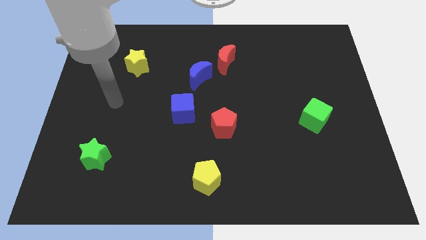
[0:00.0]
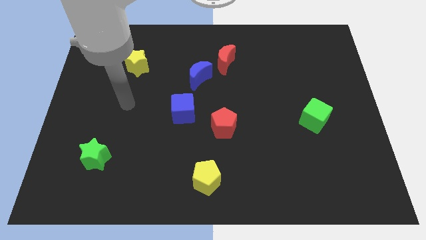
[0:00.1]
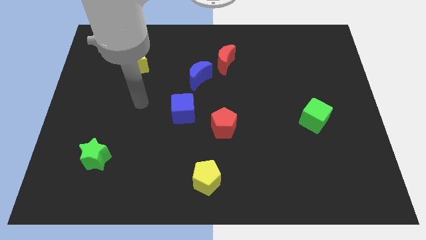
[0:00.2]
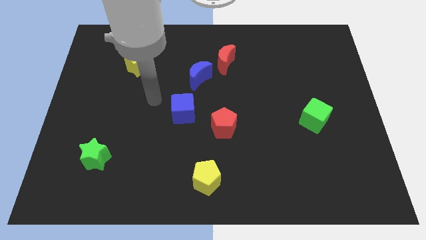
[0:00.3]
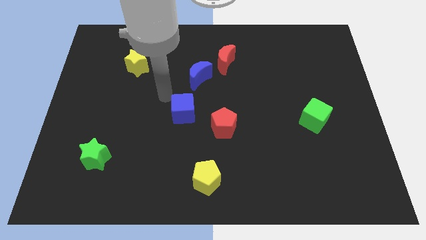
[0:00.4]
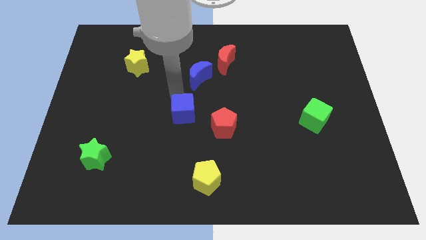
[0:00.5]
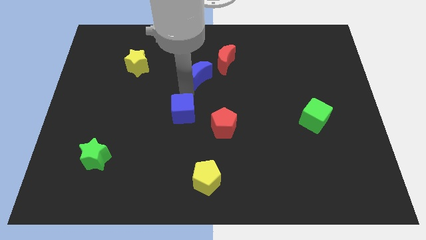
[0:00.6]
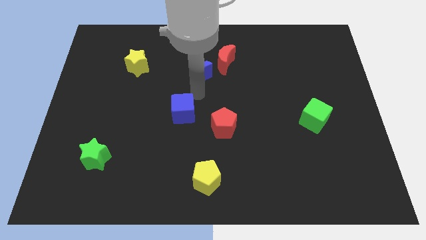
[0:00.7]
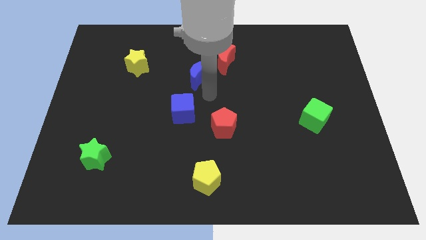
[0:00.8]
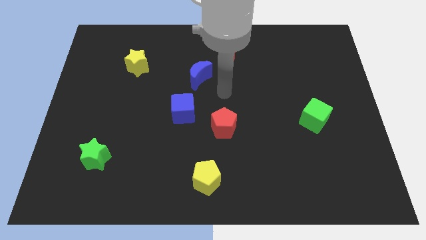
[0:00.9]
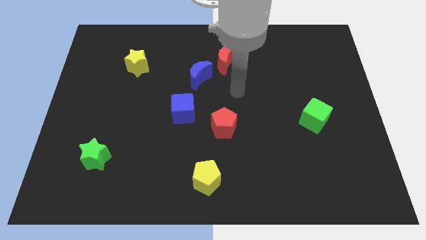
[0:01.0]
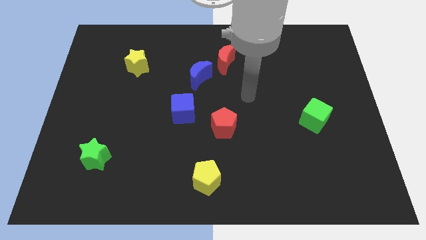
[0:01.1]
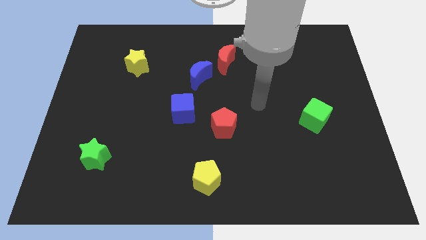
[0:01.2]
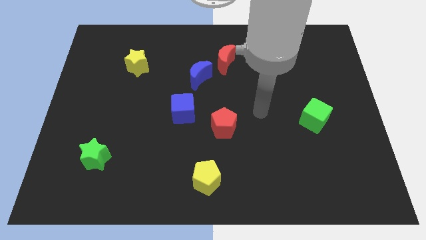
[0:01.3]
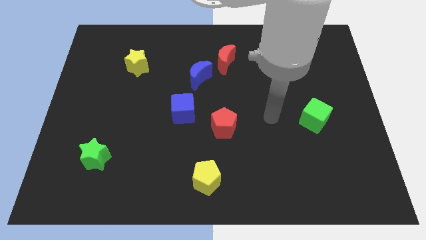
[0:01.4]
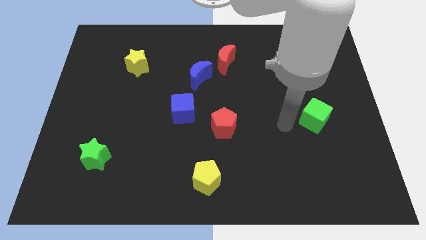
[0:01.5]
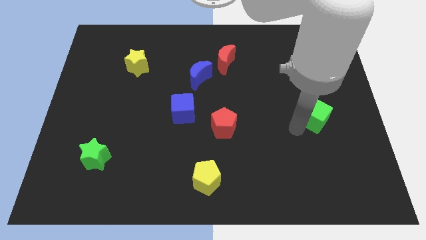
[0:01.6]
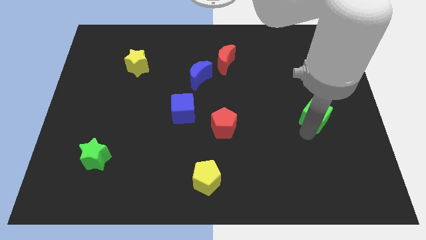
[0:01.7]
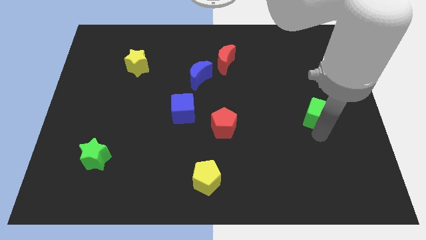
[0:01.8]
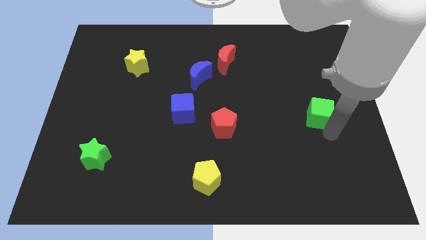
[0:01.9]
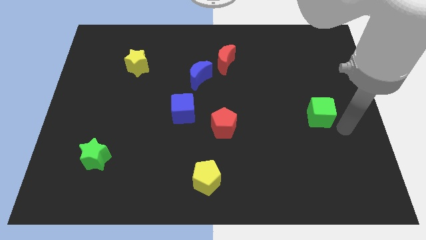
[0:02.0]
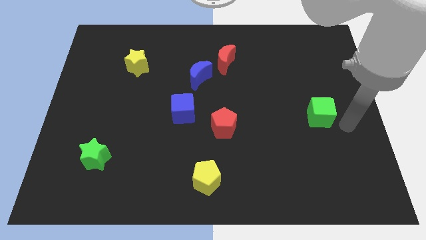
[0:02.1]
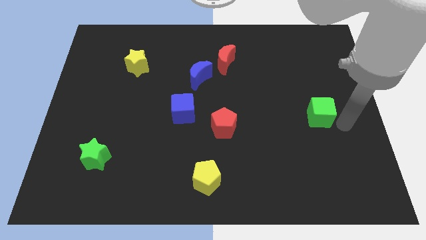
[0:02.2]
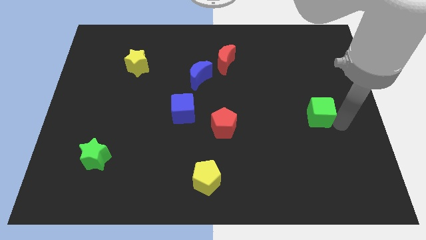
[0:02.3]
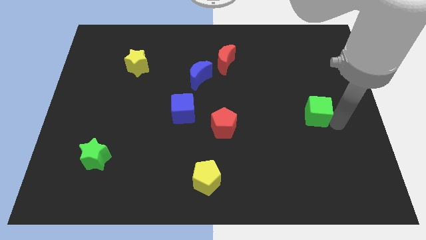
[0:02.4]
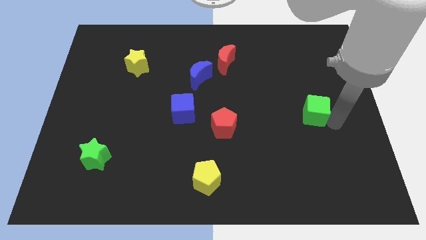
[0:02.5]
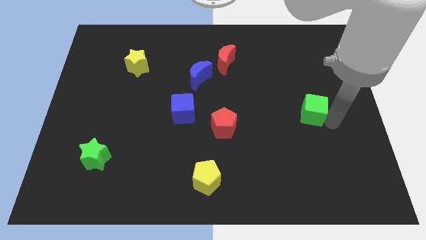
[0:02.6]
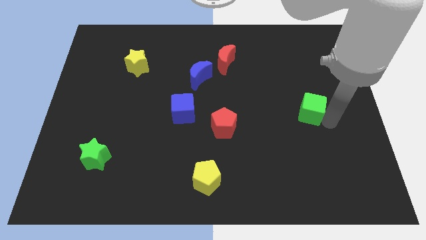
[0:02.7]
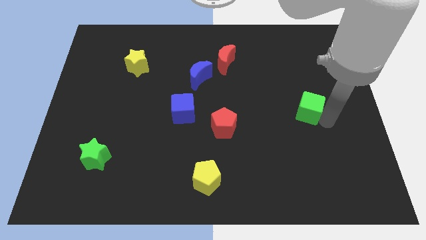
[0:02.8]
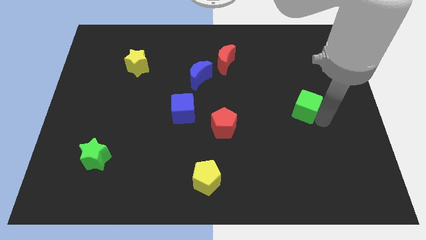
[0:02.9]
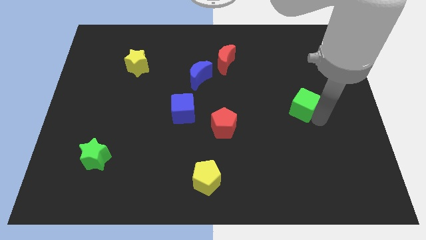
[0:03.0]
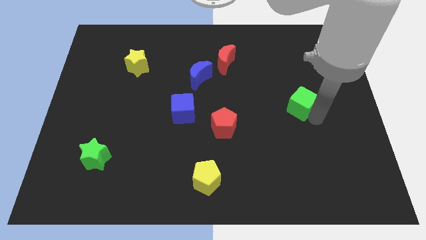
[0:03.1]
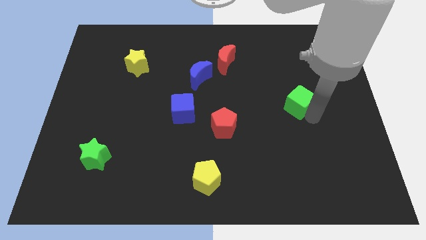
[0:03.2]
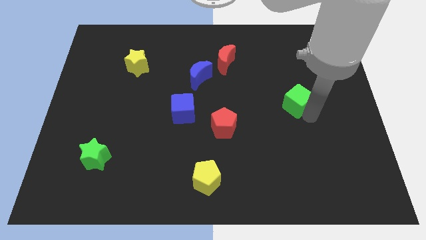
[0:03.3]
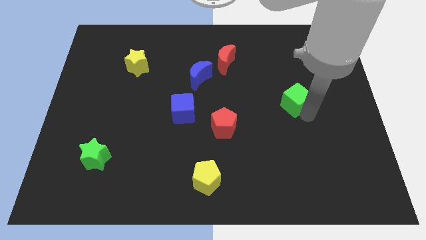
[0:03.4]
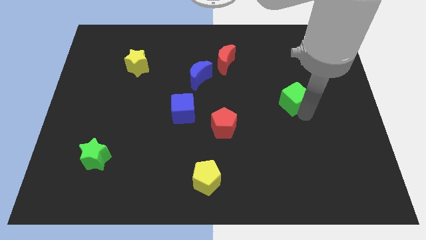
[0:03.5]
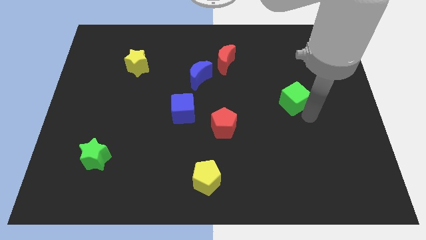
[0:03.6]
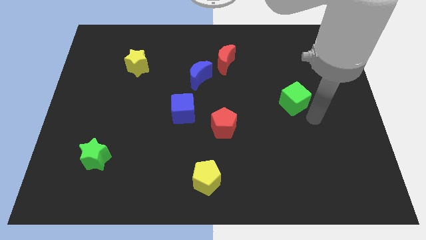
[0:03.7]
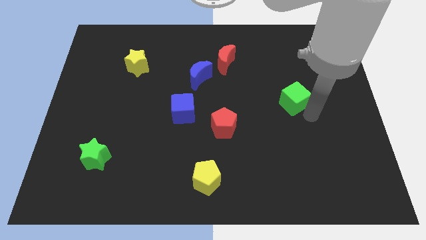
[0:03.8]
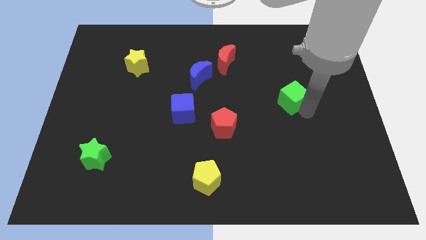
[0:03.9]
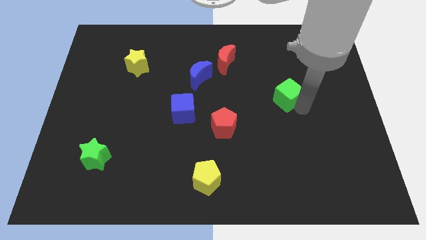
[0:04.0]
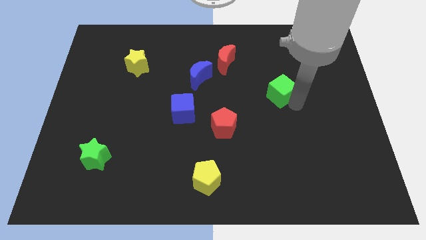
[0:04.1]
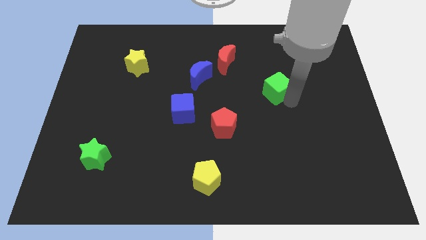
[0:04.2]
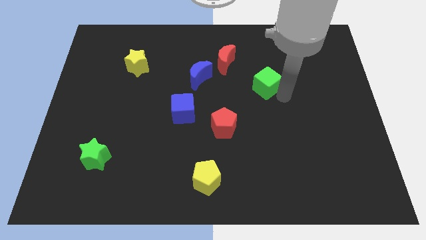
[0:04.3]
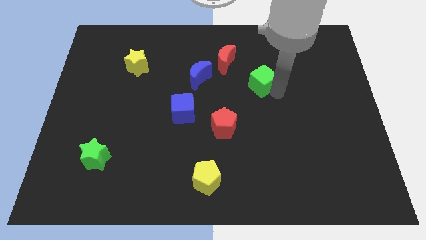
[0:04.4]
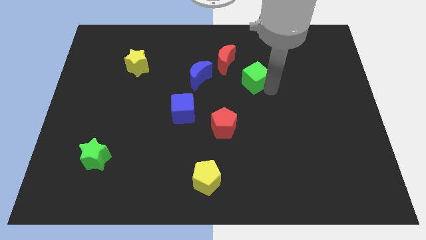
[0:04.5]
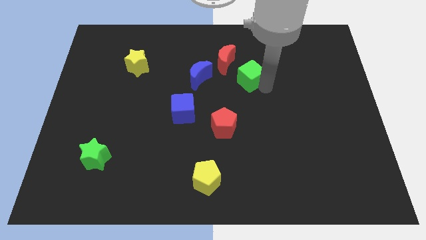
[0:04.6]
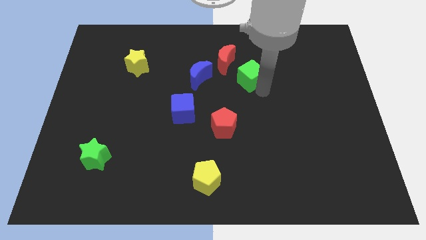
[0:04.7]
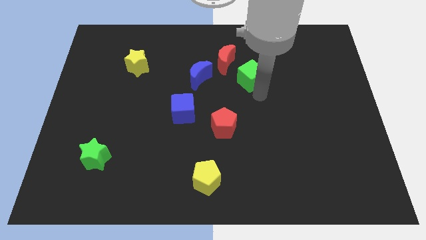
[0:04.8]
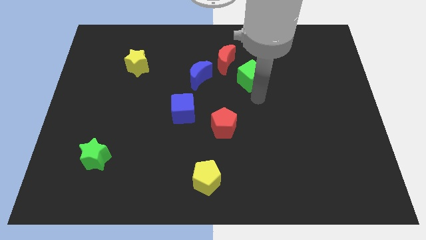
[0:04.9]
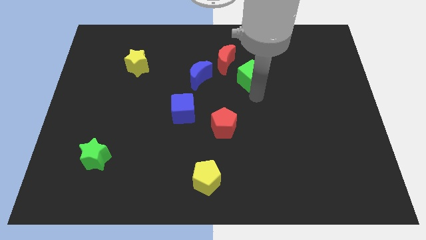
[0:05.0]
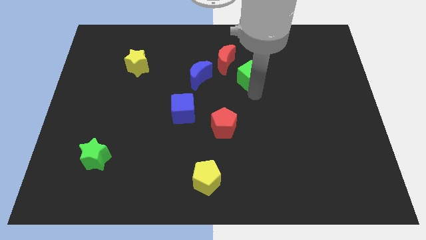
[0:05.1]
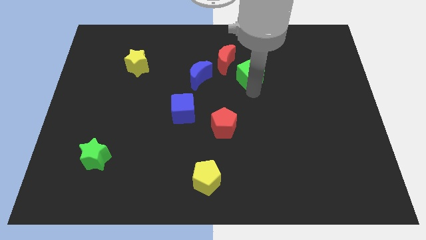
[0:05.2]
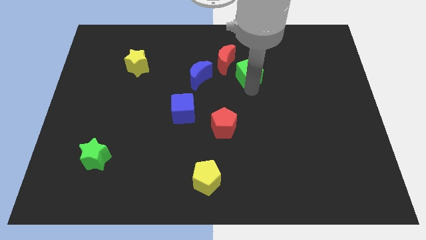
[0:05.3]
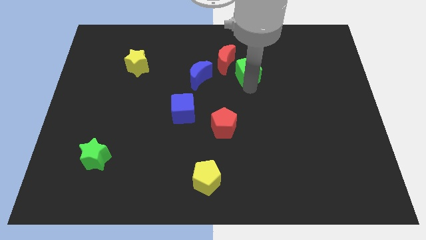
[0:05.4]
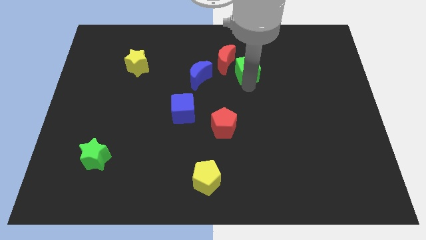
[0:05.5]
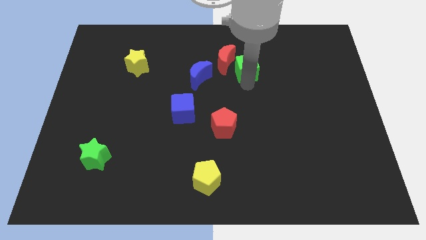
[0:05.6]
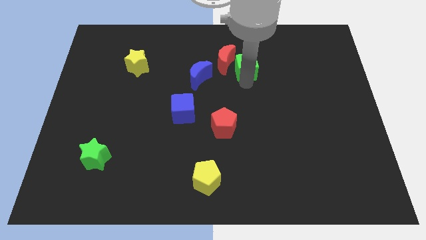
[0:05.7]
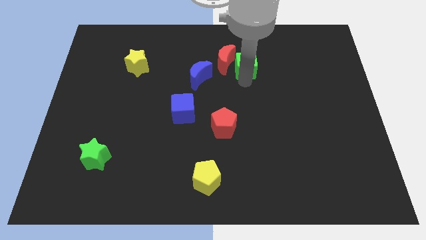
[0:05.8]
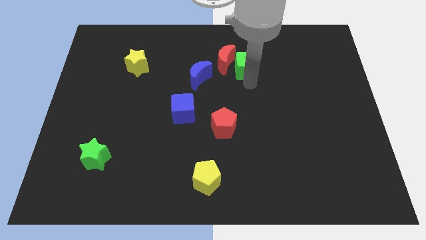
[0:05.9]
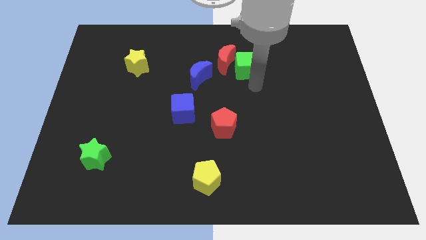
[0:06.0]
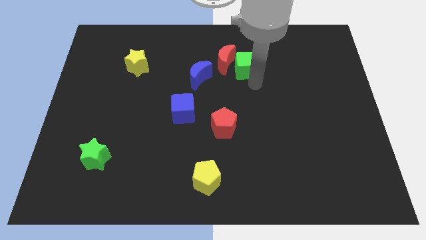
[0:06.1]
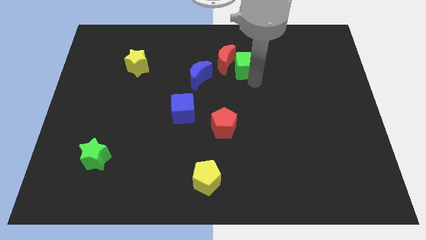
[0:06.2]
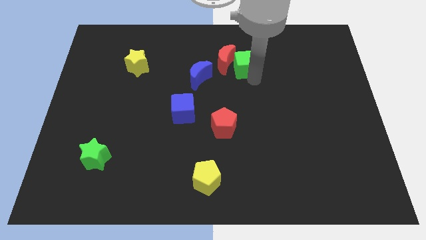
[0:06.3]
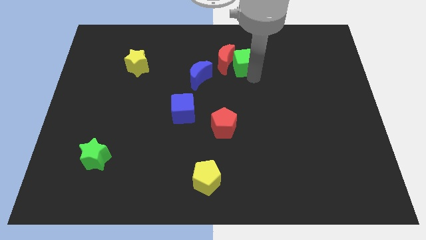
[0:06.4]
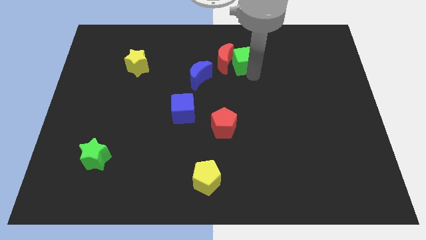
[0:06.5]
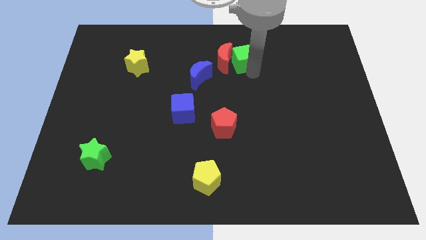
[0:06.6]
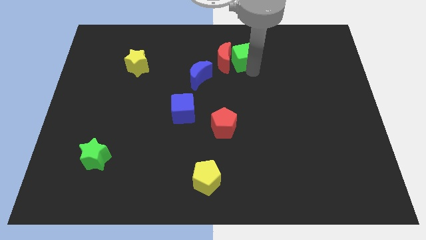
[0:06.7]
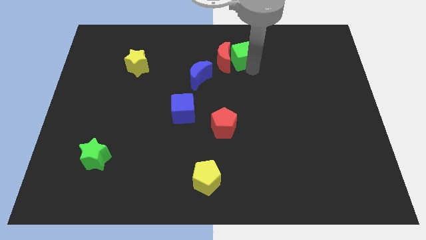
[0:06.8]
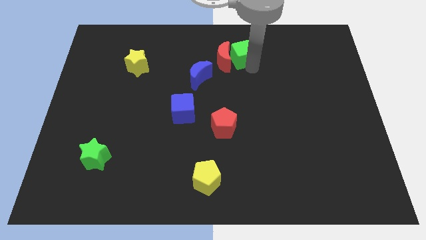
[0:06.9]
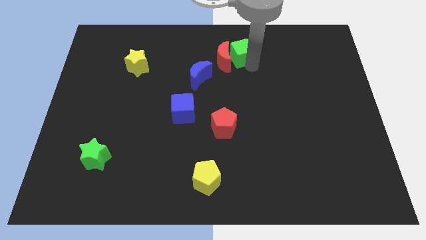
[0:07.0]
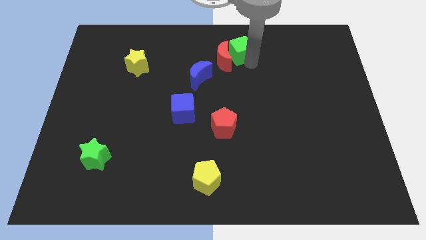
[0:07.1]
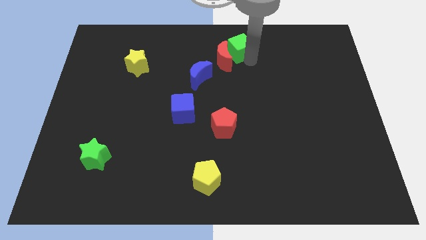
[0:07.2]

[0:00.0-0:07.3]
slide the green cube to the towards your base
